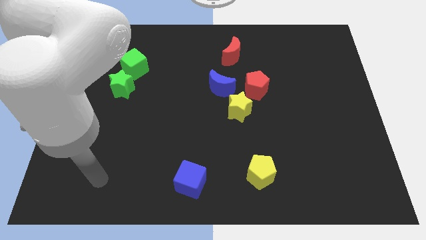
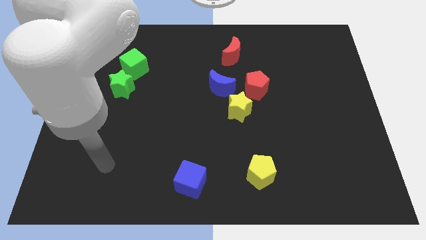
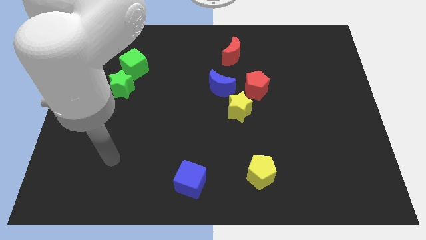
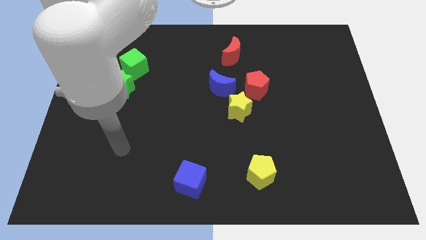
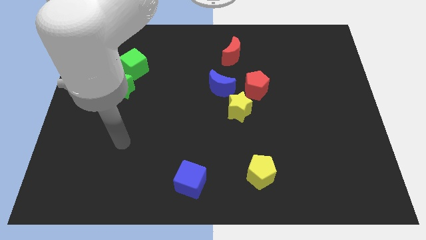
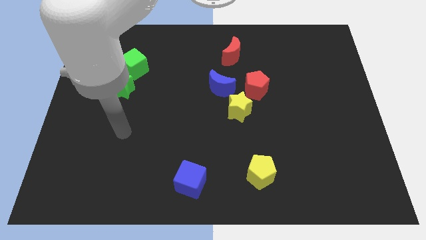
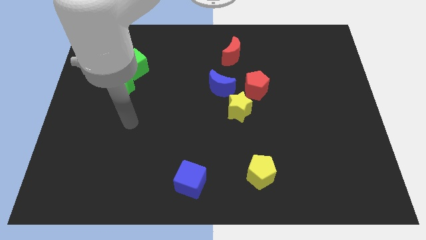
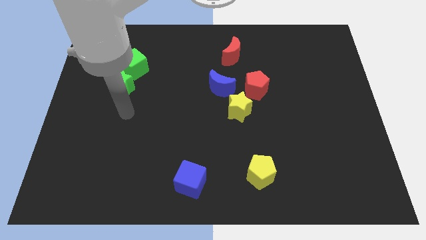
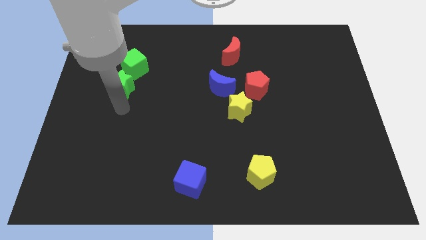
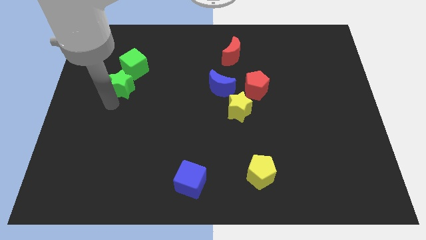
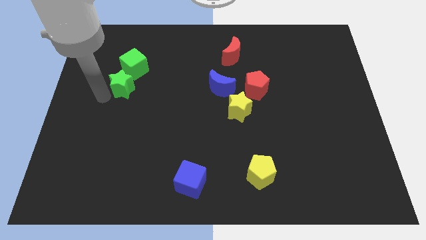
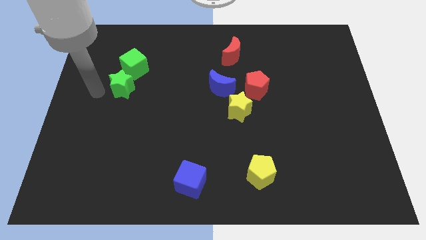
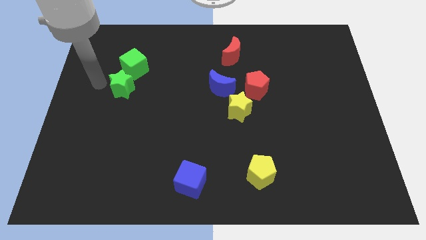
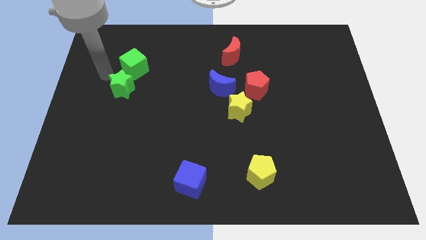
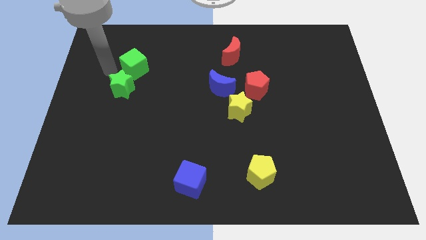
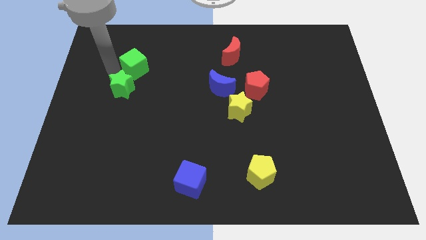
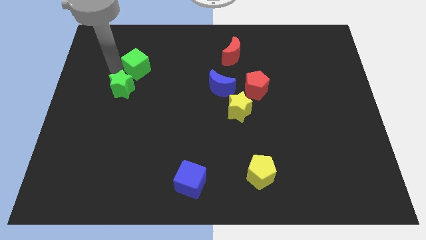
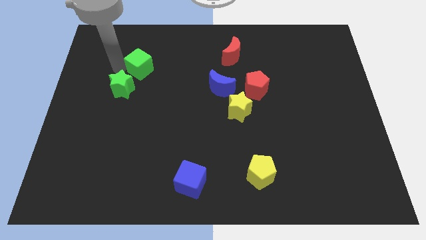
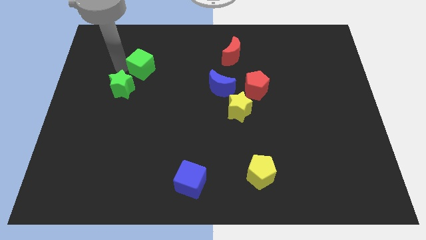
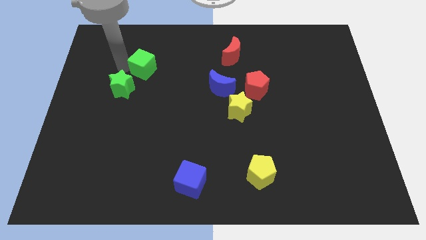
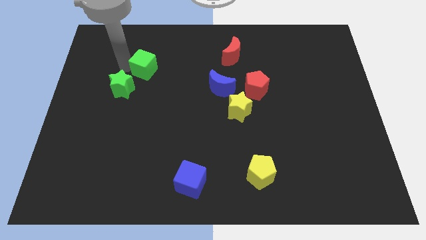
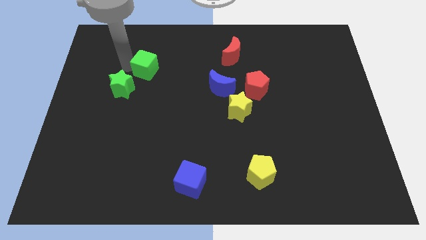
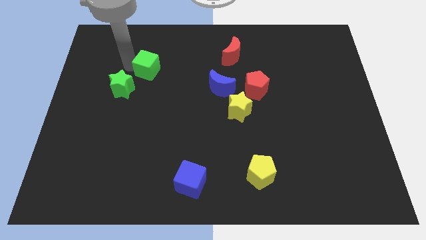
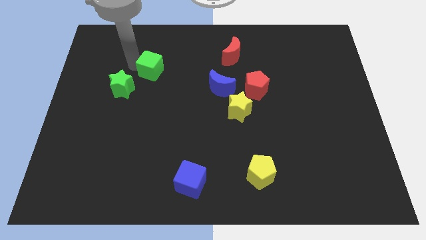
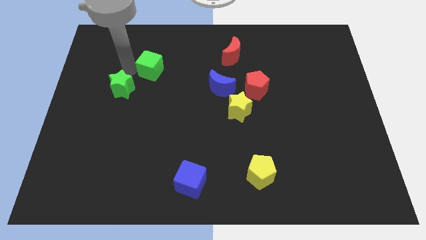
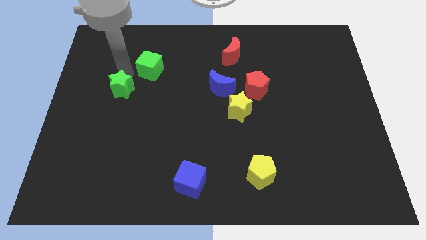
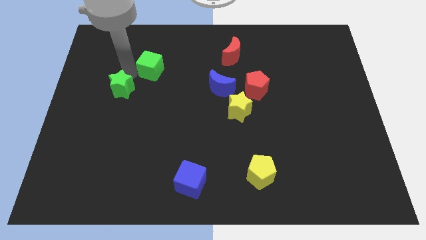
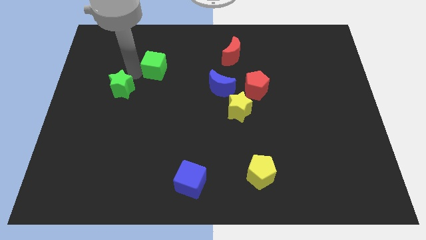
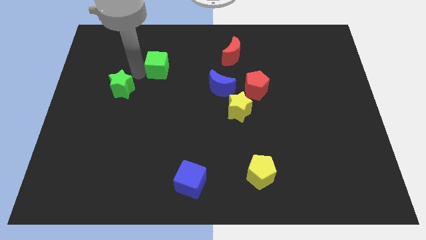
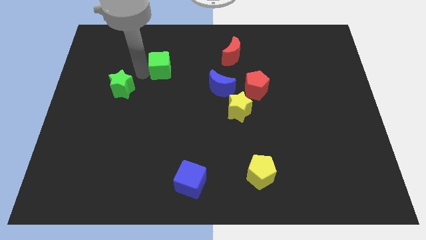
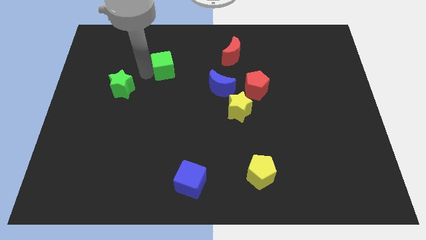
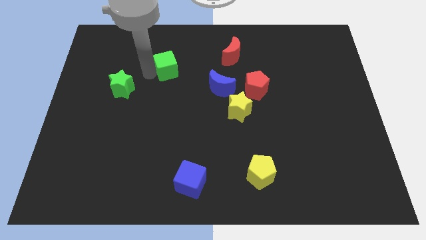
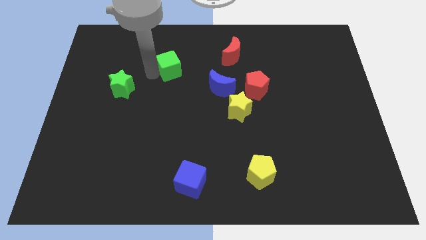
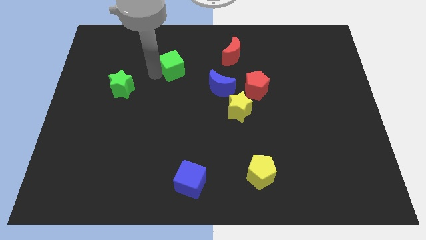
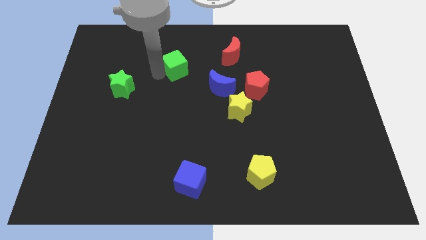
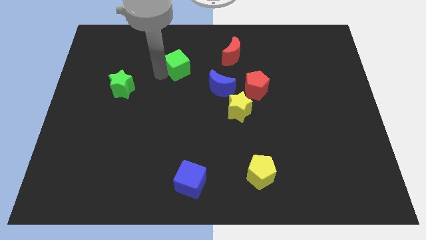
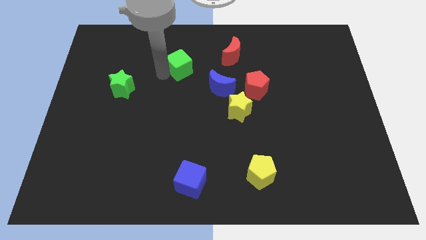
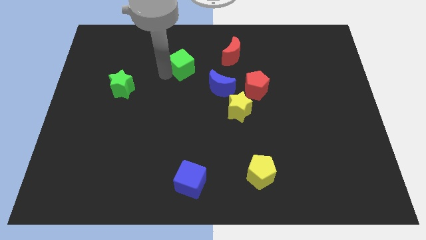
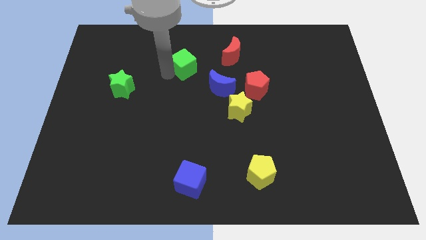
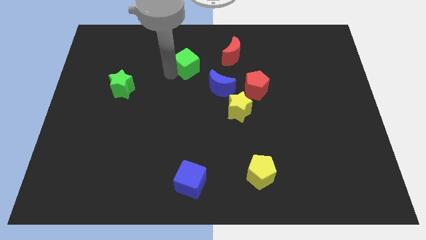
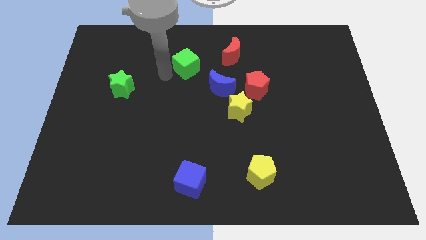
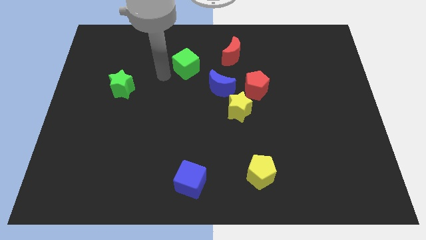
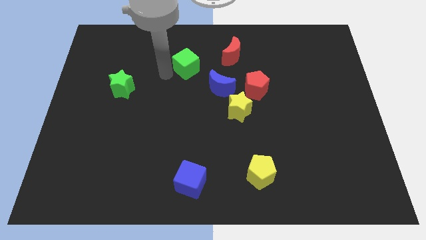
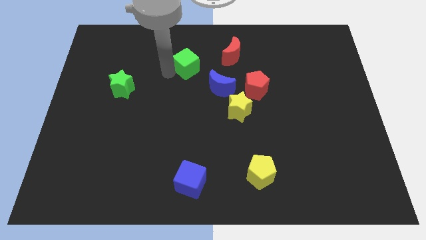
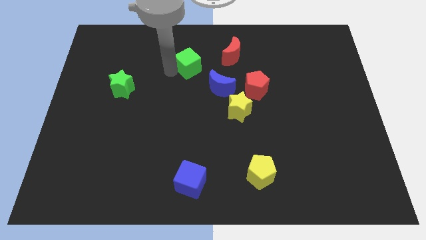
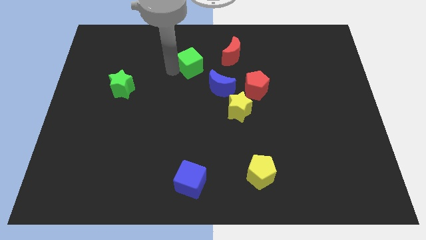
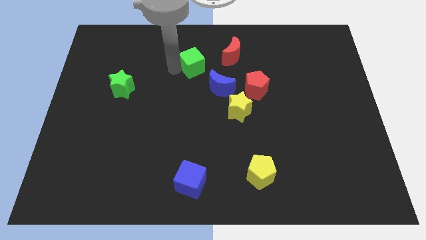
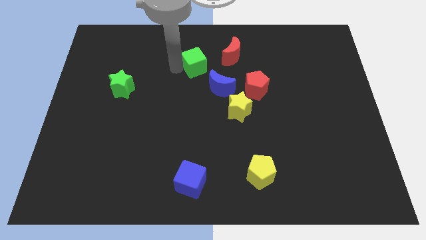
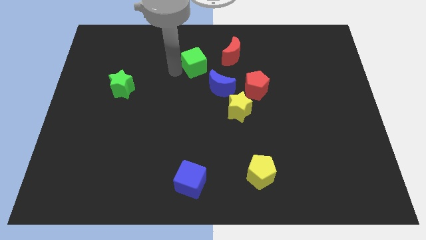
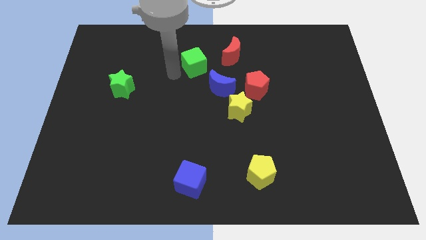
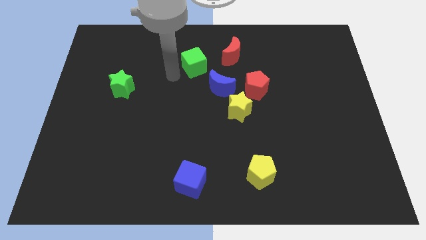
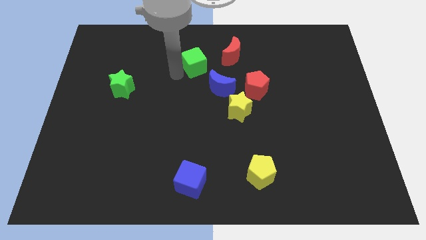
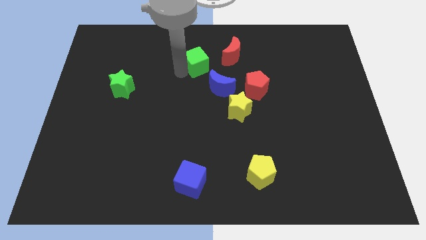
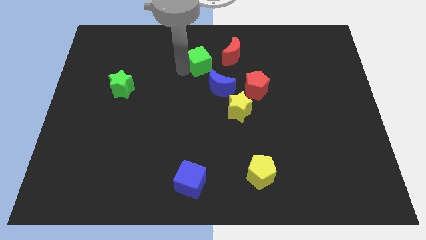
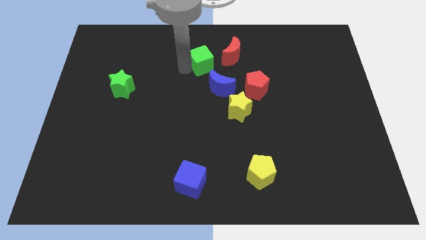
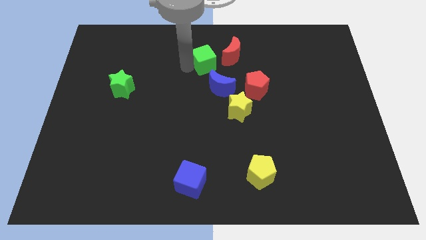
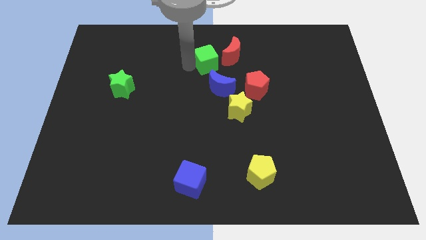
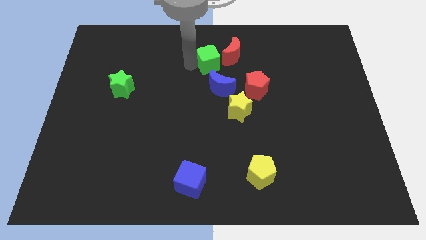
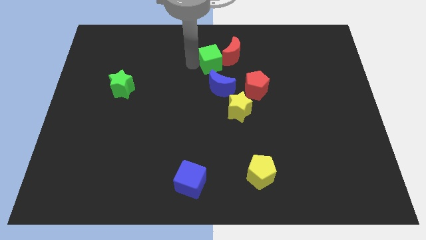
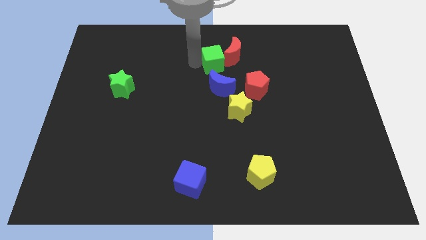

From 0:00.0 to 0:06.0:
slide the green cube next to the red moon

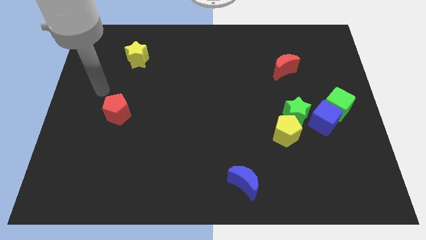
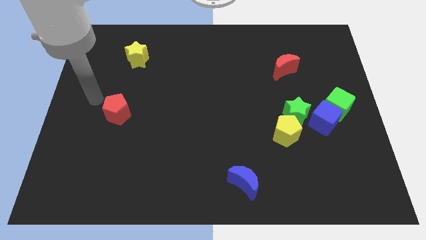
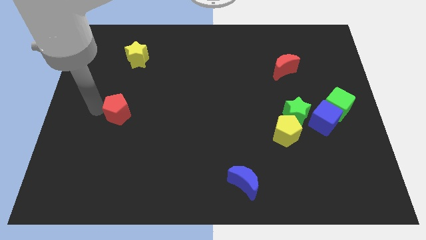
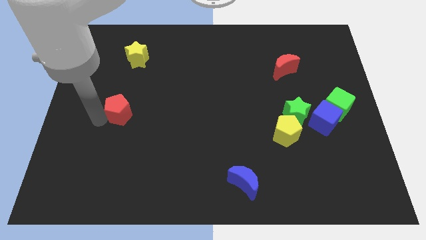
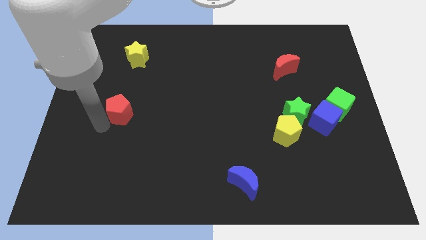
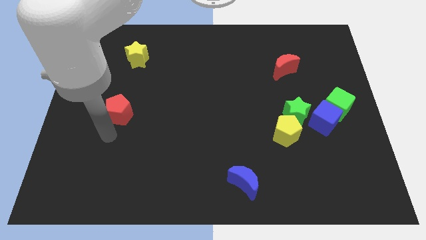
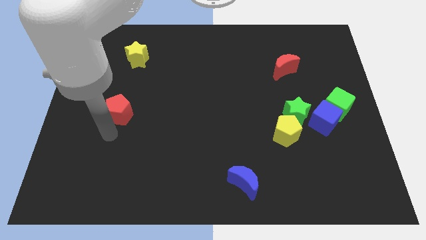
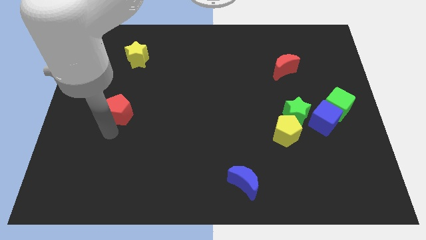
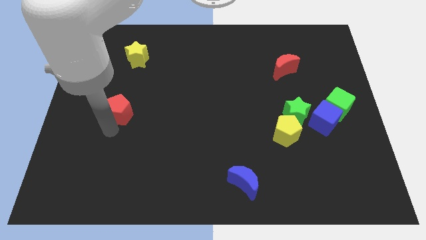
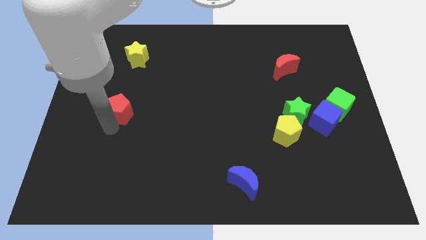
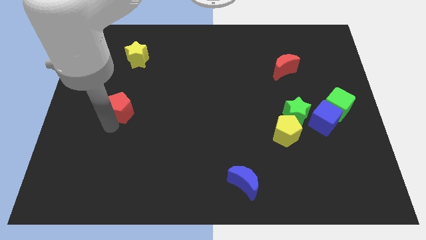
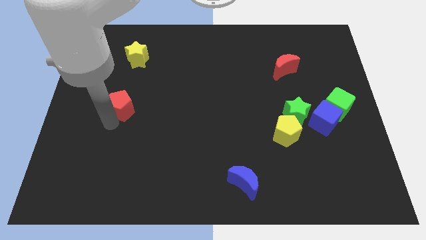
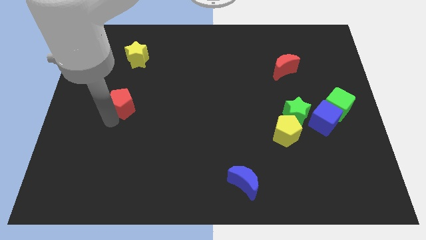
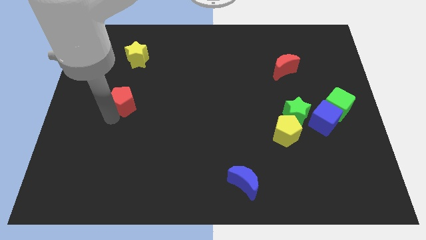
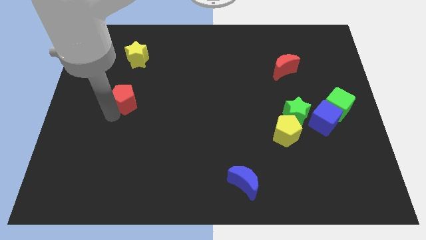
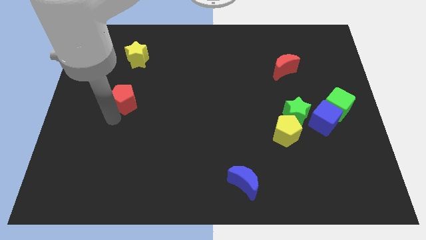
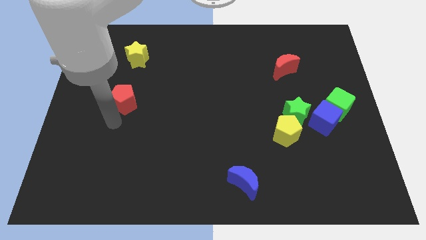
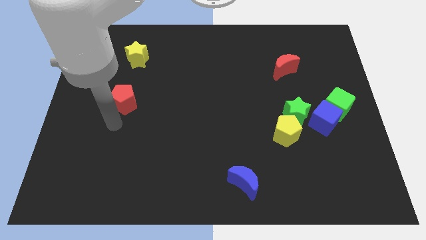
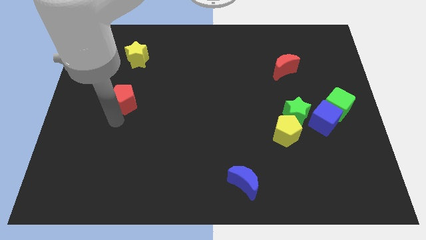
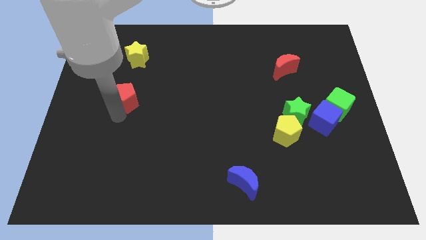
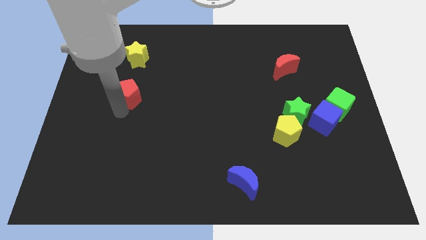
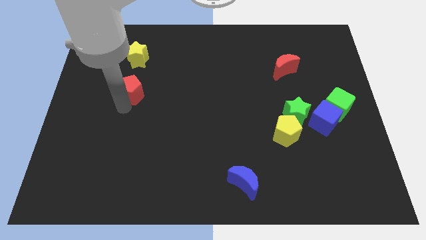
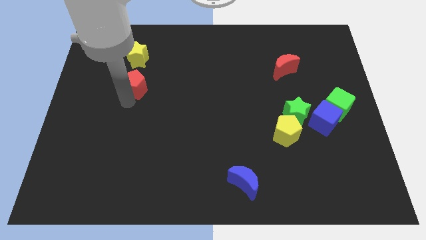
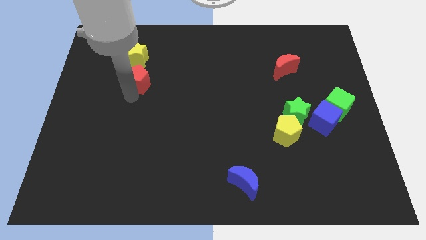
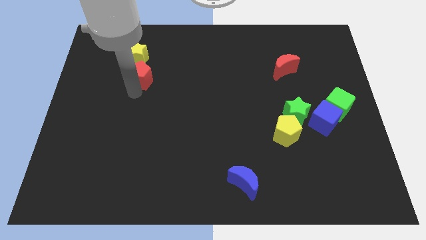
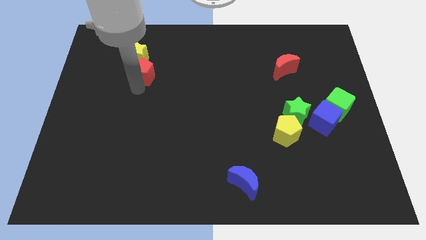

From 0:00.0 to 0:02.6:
push the red pentagon towards the yellow star
